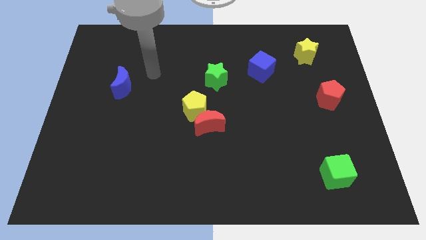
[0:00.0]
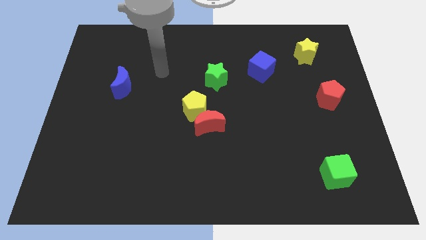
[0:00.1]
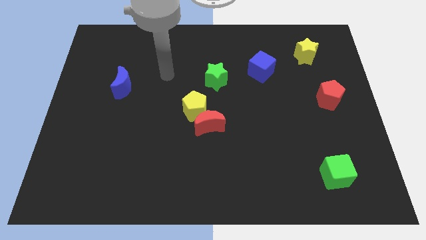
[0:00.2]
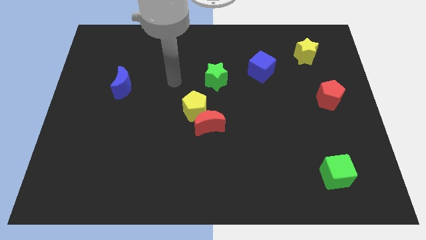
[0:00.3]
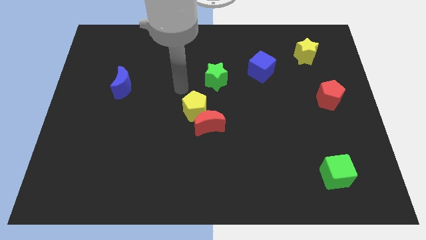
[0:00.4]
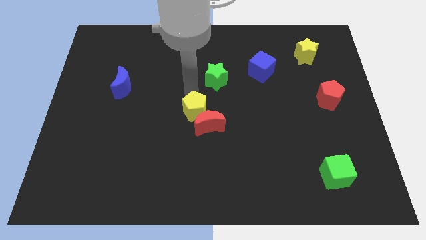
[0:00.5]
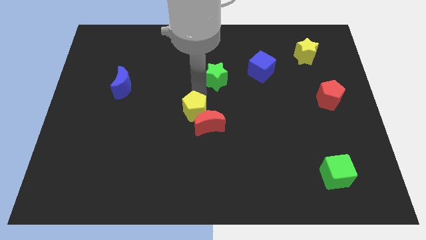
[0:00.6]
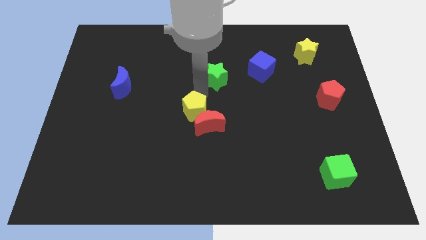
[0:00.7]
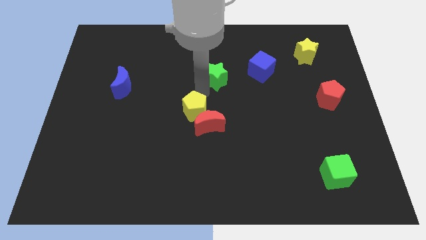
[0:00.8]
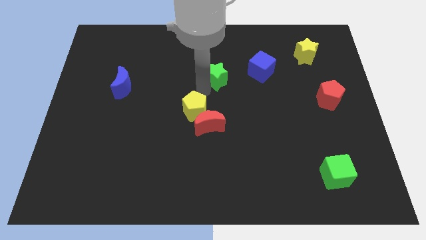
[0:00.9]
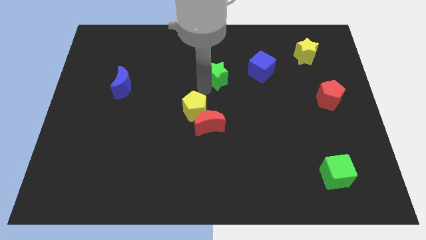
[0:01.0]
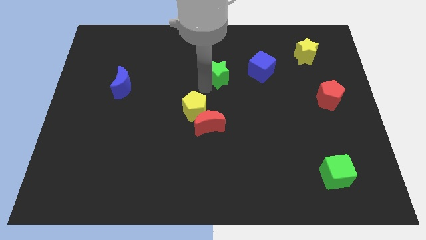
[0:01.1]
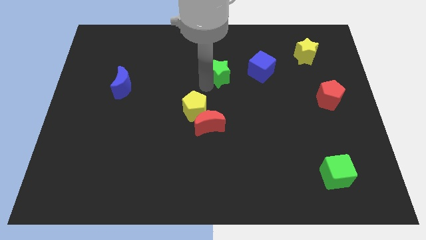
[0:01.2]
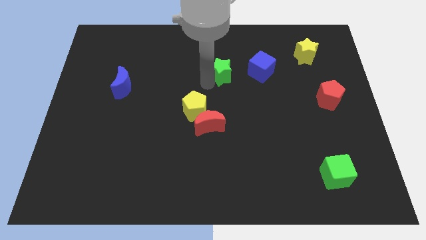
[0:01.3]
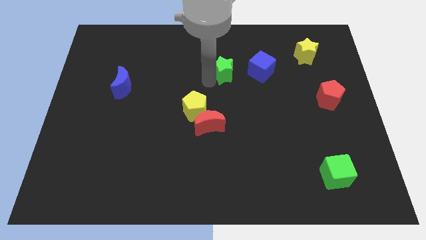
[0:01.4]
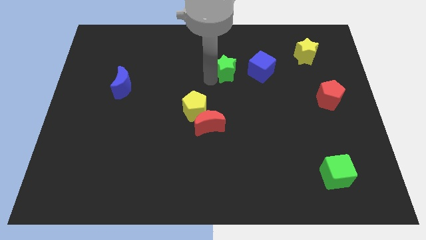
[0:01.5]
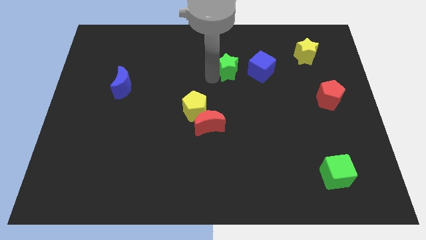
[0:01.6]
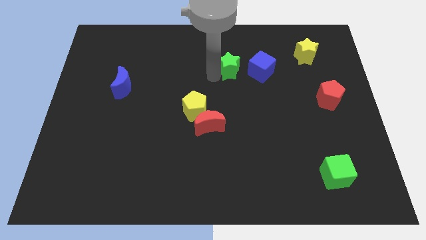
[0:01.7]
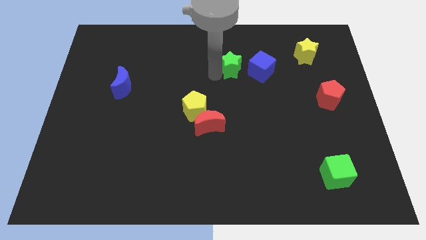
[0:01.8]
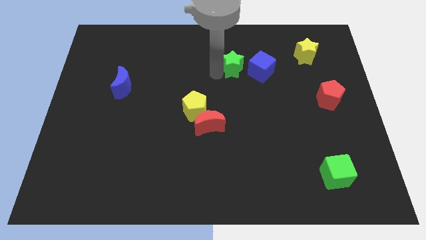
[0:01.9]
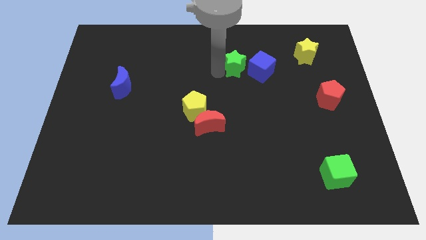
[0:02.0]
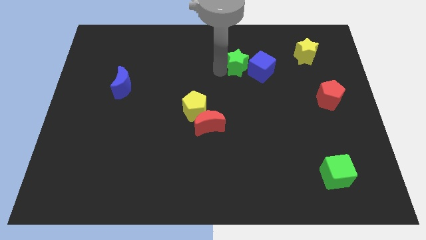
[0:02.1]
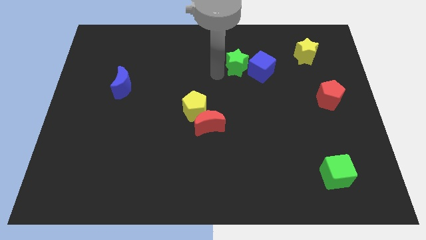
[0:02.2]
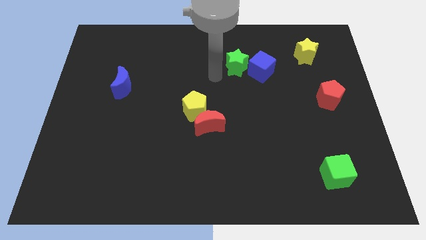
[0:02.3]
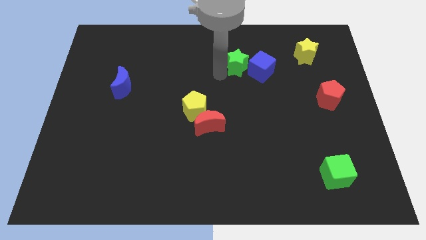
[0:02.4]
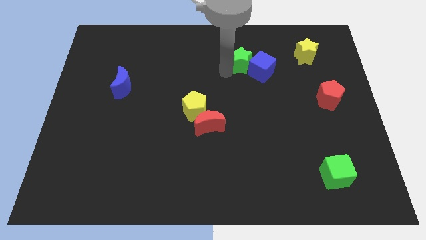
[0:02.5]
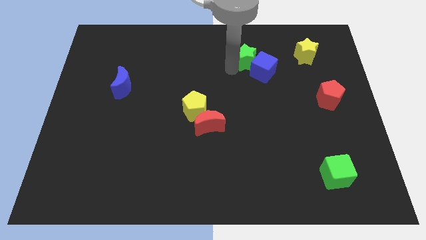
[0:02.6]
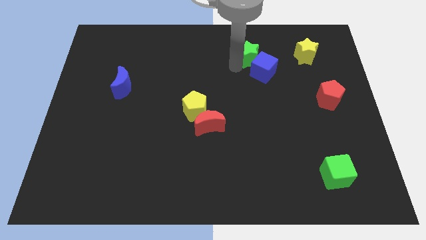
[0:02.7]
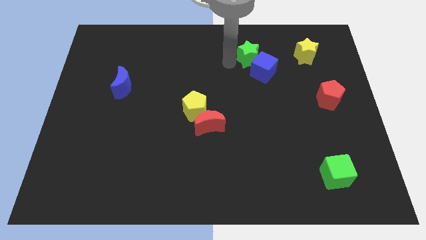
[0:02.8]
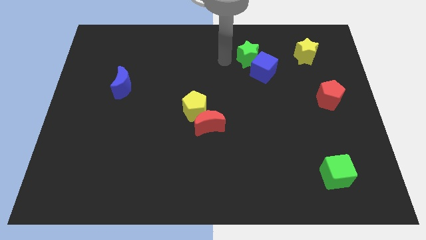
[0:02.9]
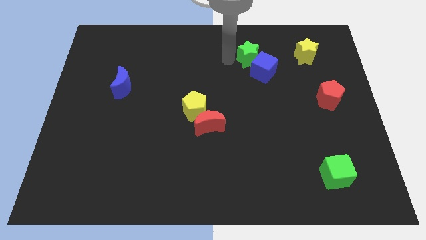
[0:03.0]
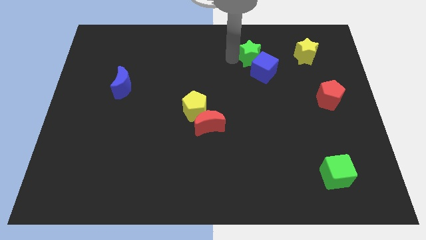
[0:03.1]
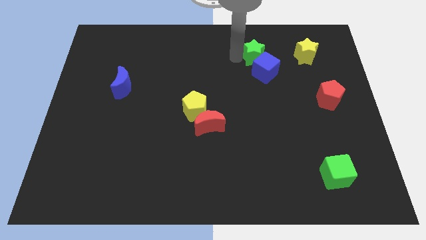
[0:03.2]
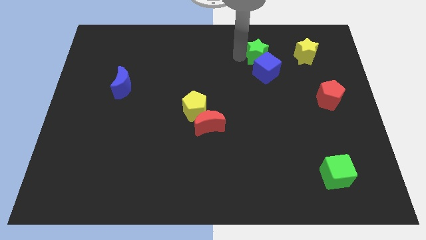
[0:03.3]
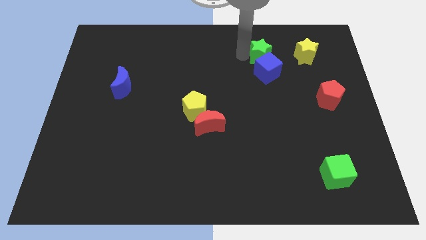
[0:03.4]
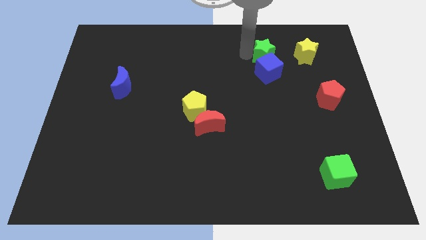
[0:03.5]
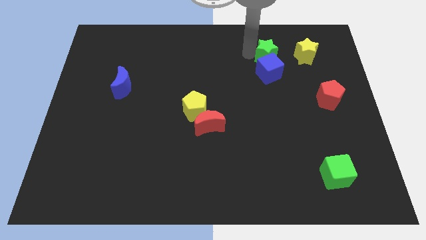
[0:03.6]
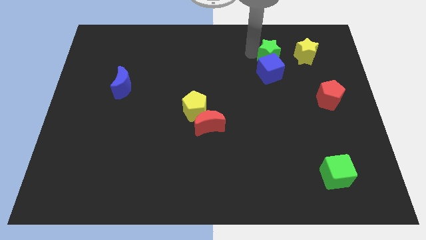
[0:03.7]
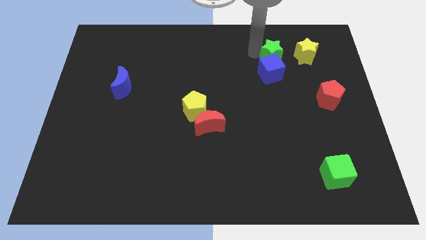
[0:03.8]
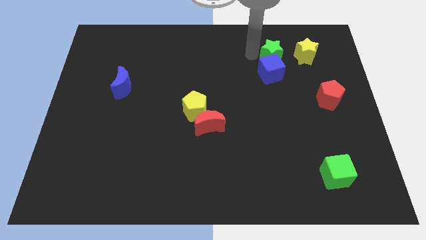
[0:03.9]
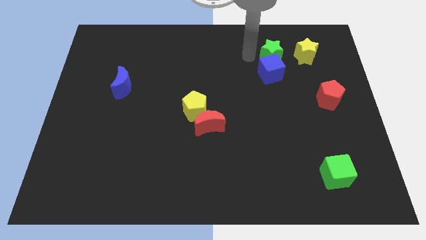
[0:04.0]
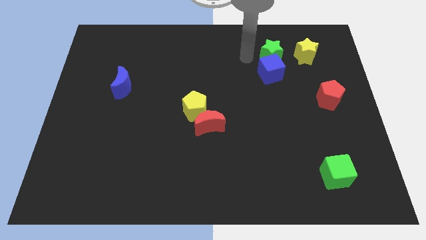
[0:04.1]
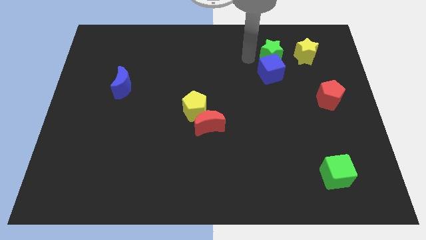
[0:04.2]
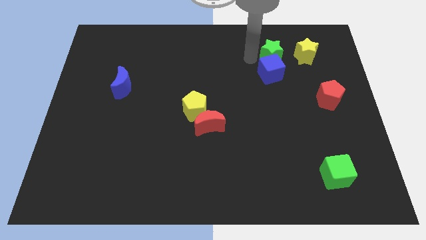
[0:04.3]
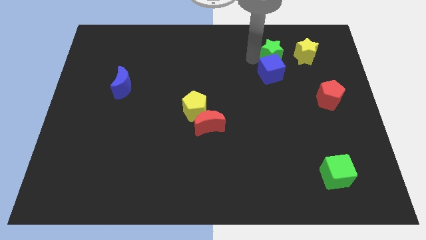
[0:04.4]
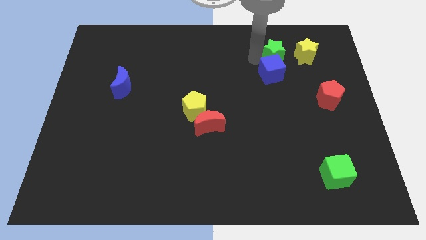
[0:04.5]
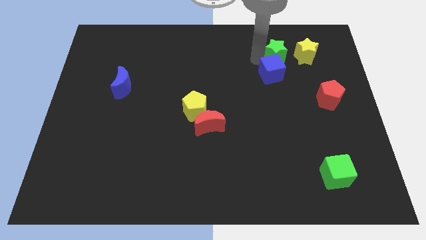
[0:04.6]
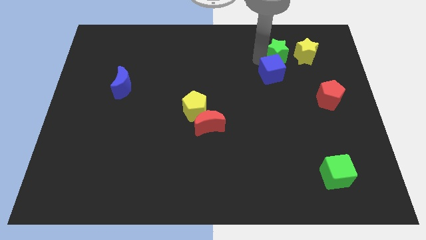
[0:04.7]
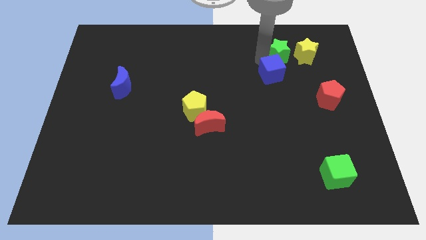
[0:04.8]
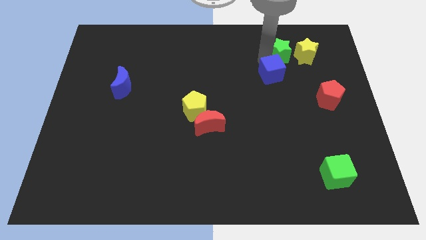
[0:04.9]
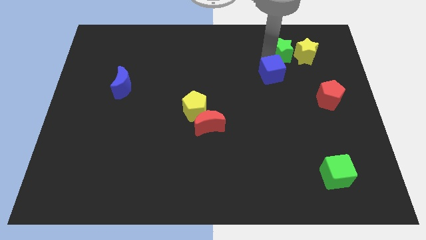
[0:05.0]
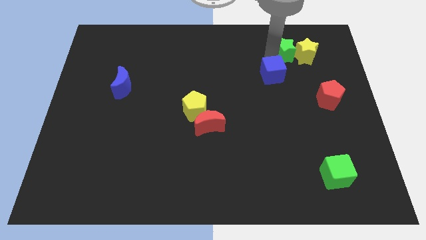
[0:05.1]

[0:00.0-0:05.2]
move the green star close to the yellow star

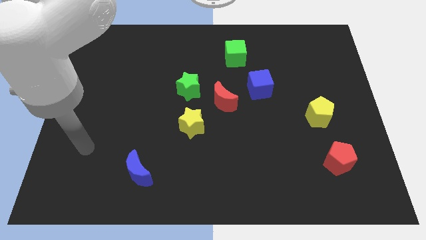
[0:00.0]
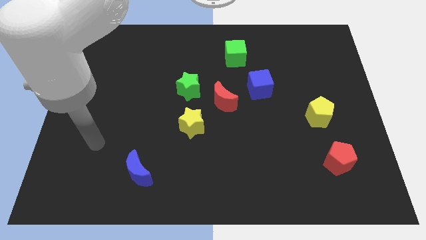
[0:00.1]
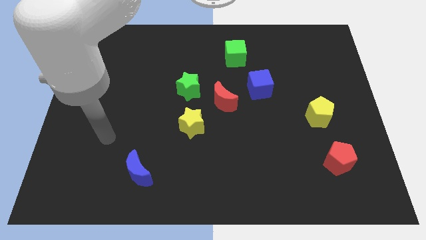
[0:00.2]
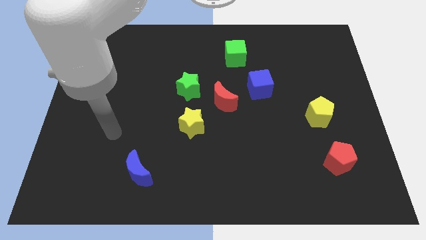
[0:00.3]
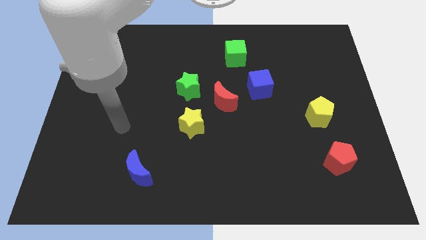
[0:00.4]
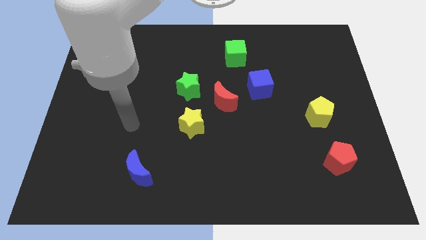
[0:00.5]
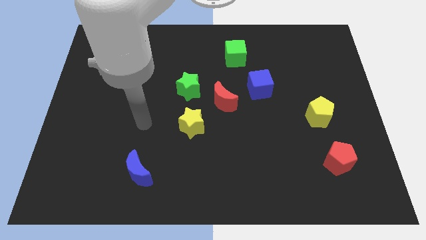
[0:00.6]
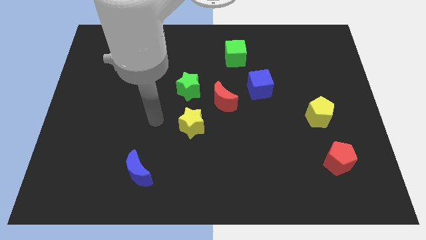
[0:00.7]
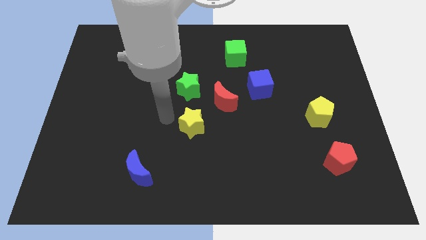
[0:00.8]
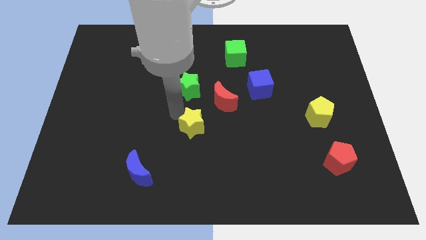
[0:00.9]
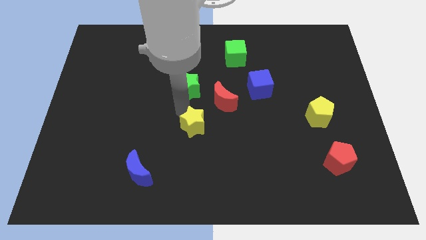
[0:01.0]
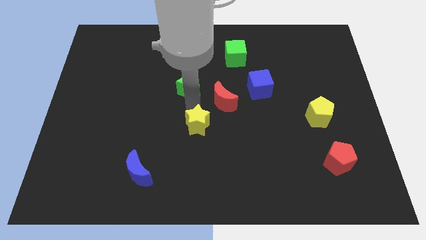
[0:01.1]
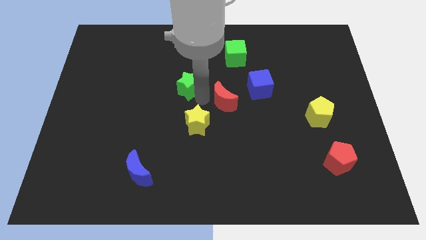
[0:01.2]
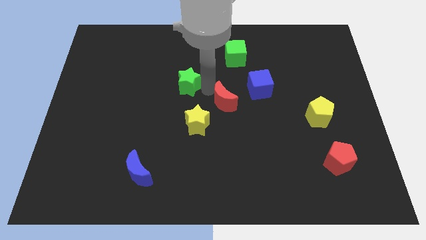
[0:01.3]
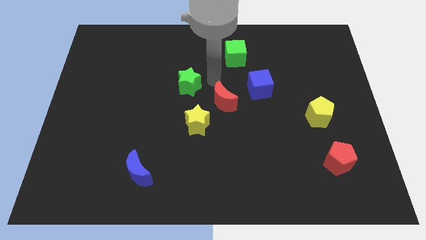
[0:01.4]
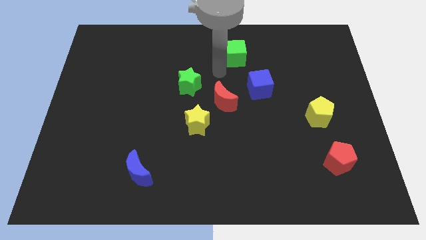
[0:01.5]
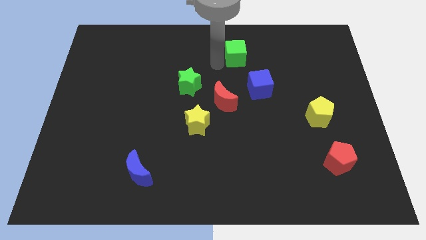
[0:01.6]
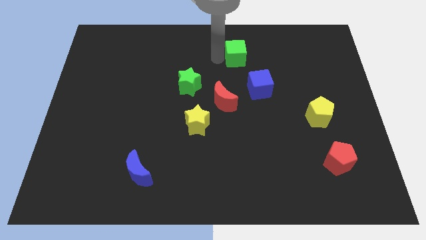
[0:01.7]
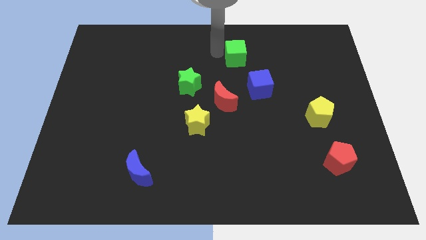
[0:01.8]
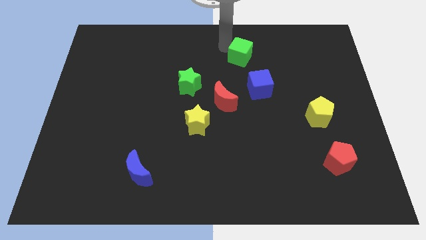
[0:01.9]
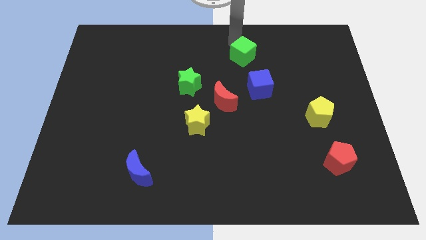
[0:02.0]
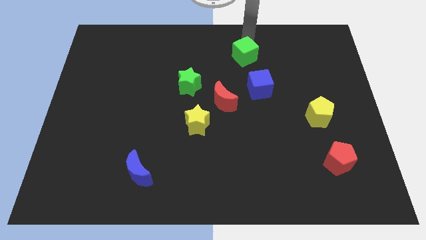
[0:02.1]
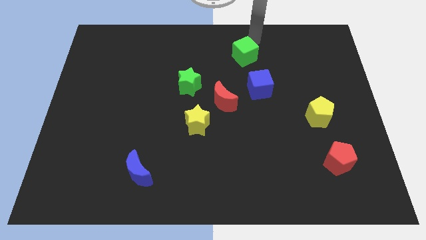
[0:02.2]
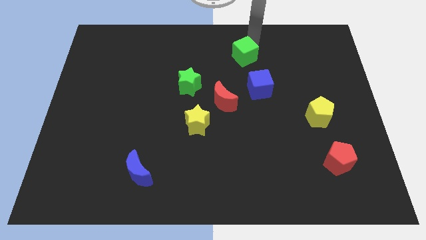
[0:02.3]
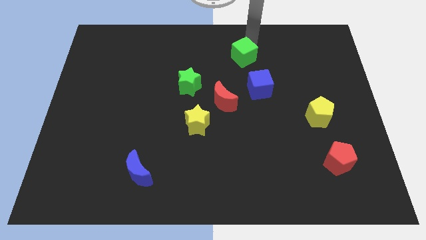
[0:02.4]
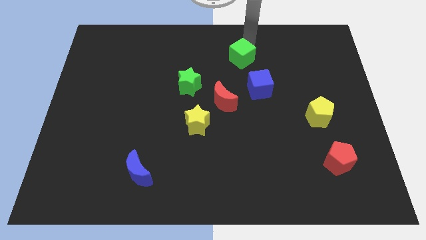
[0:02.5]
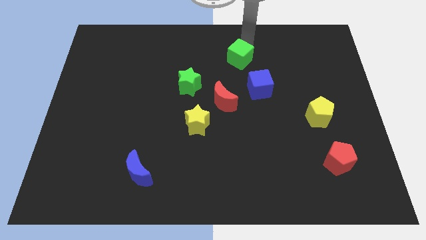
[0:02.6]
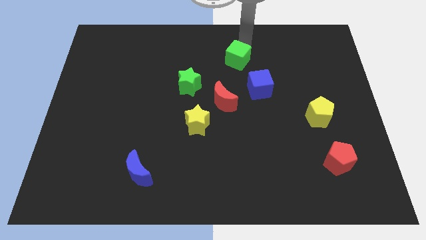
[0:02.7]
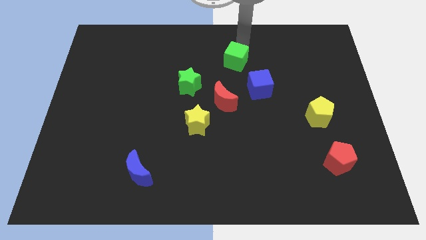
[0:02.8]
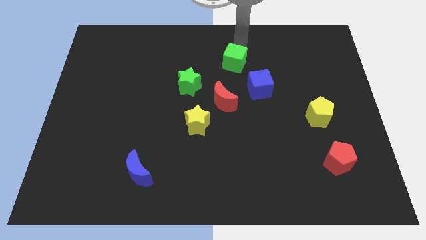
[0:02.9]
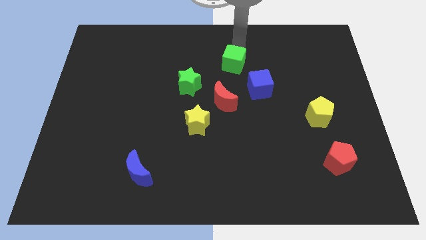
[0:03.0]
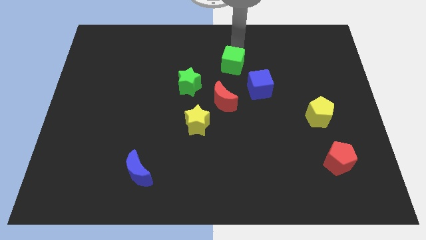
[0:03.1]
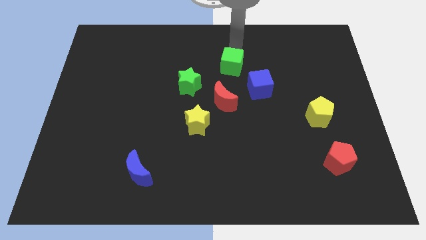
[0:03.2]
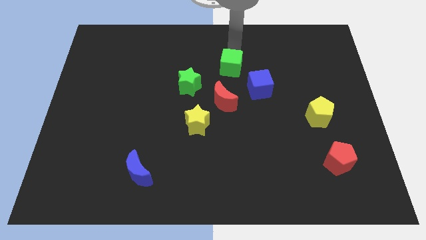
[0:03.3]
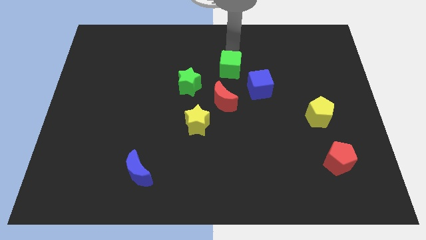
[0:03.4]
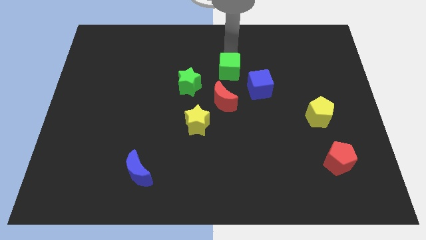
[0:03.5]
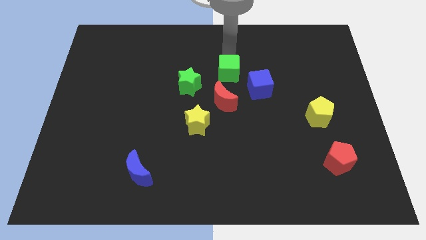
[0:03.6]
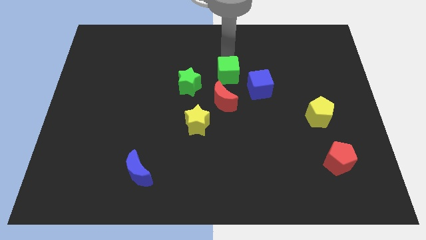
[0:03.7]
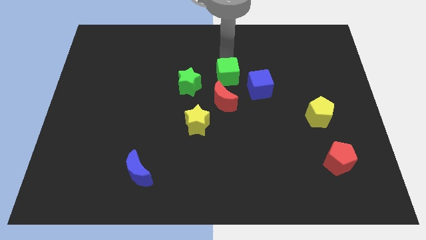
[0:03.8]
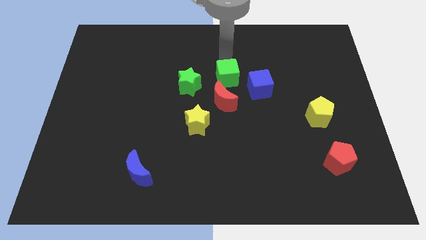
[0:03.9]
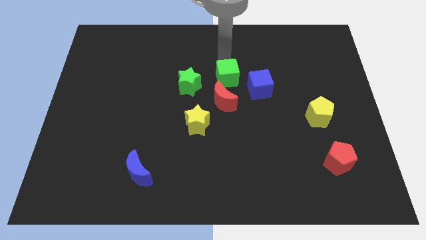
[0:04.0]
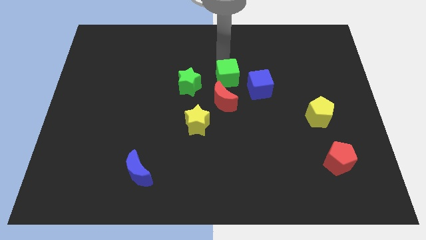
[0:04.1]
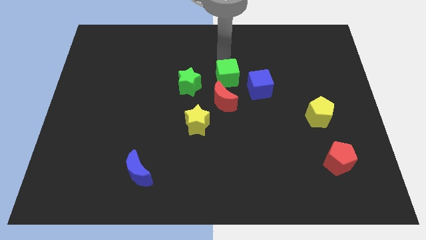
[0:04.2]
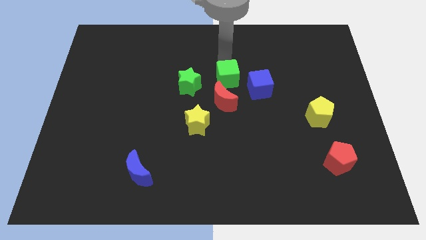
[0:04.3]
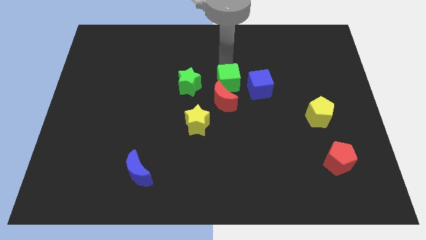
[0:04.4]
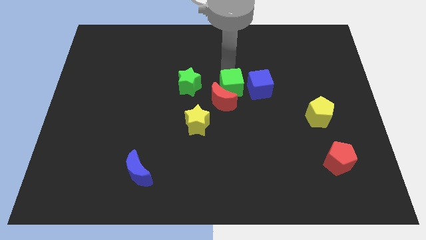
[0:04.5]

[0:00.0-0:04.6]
push the green cube towards the red moon
